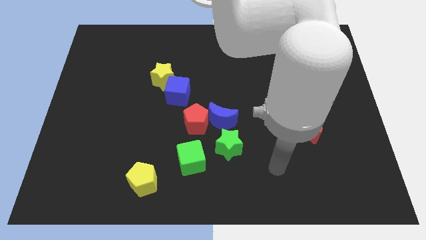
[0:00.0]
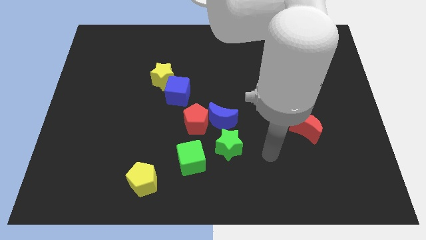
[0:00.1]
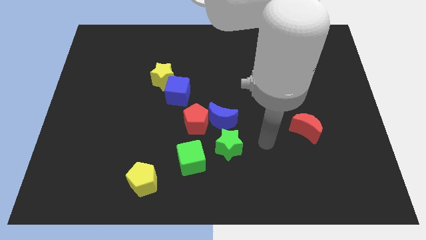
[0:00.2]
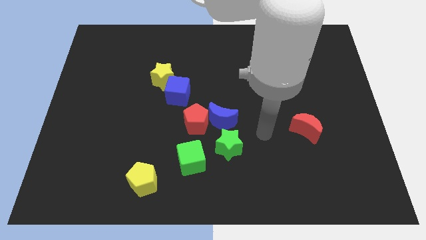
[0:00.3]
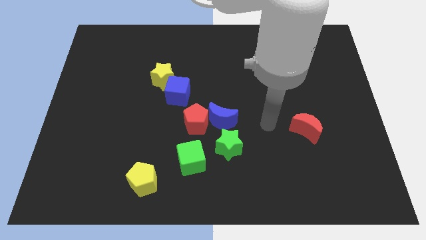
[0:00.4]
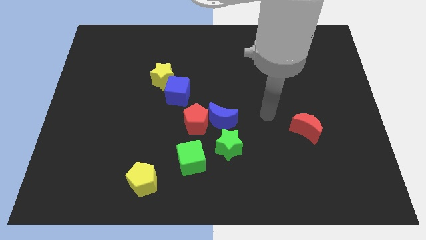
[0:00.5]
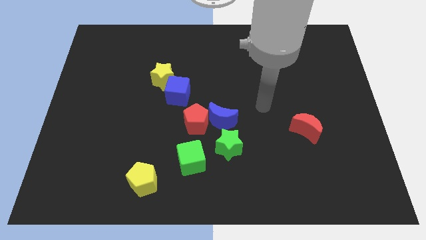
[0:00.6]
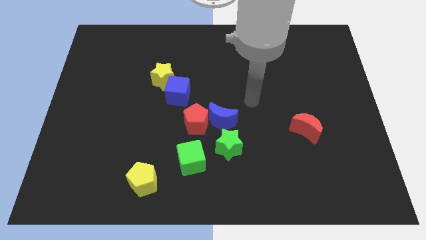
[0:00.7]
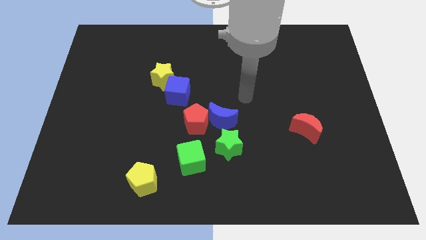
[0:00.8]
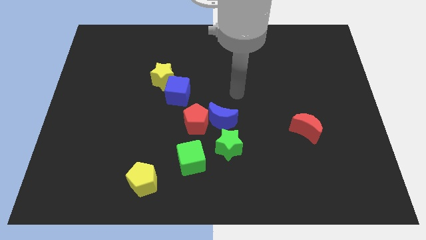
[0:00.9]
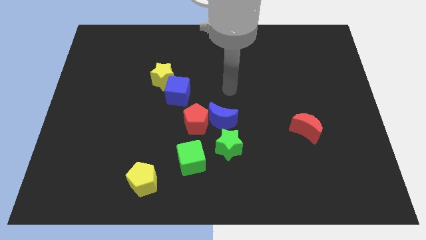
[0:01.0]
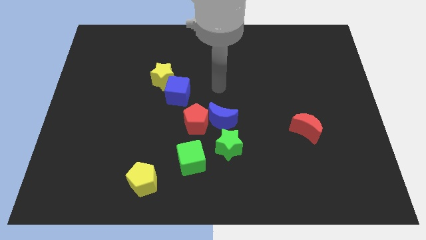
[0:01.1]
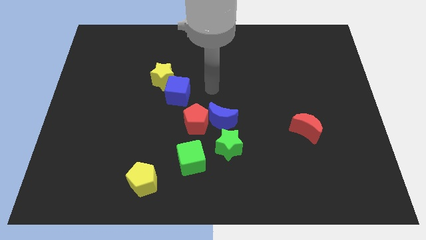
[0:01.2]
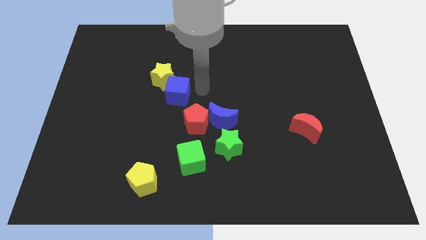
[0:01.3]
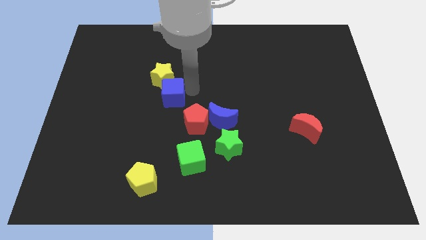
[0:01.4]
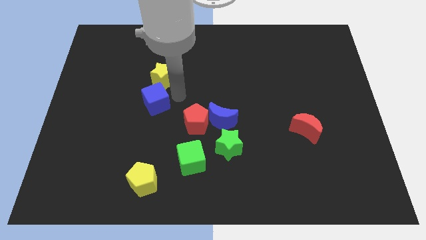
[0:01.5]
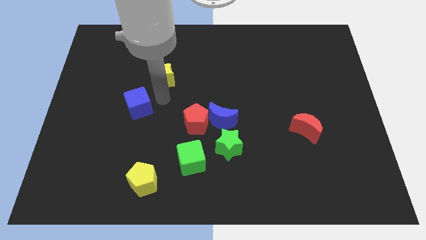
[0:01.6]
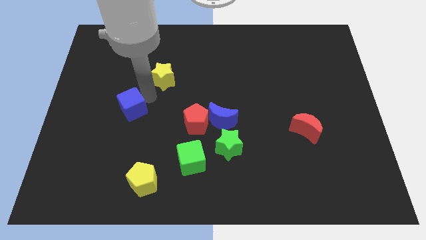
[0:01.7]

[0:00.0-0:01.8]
move the yellow star away from the blue cube

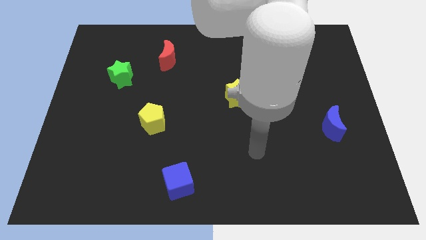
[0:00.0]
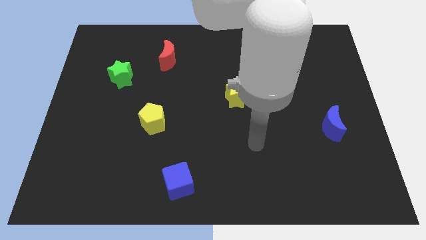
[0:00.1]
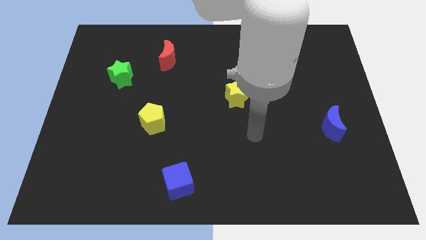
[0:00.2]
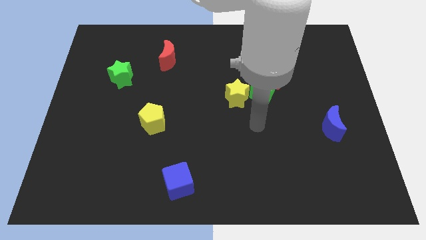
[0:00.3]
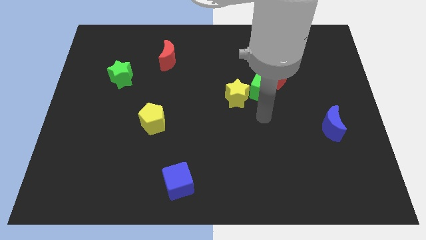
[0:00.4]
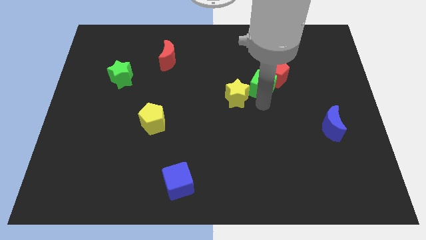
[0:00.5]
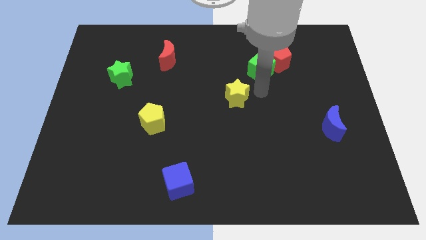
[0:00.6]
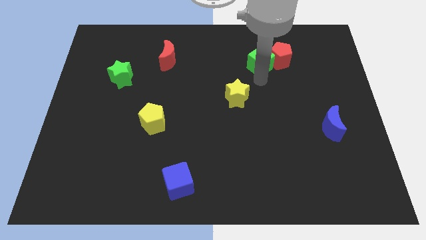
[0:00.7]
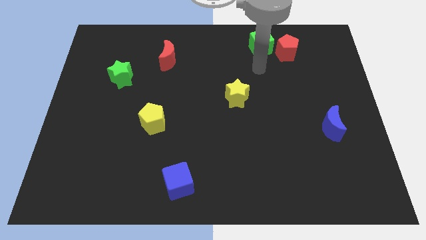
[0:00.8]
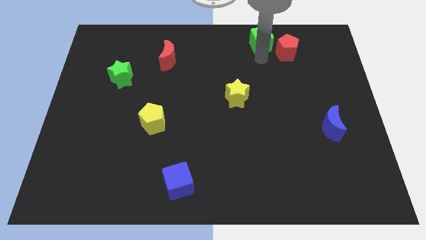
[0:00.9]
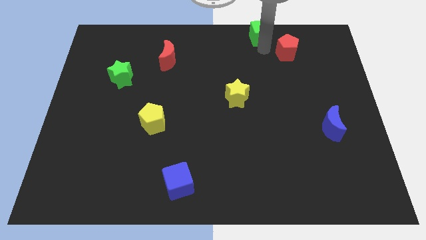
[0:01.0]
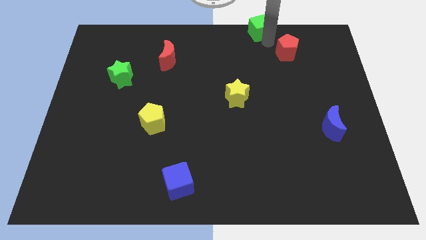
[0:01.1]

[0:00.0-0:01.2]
move the red pentagon away from the green cube

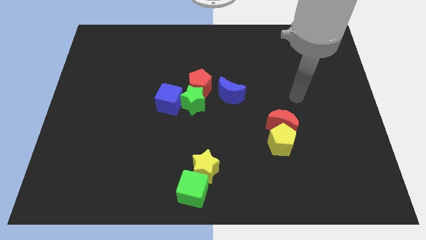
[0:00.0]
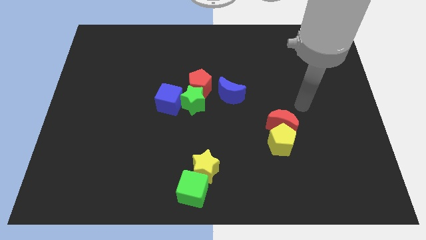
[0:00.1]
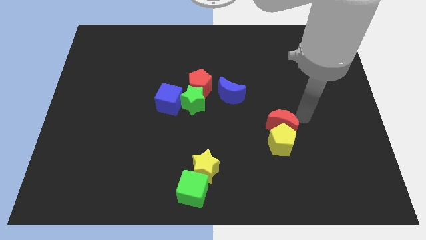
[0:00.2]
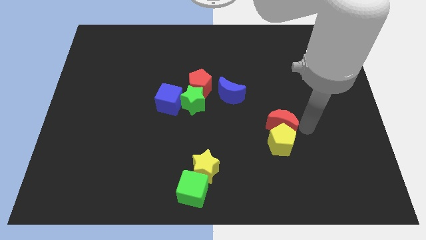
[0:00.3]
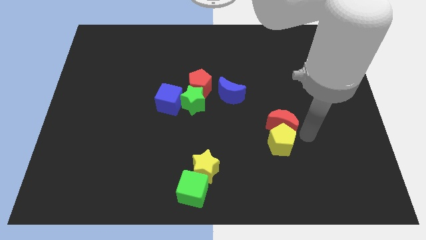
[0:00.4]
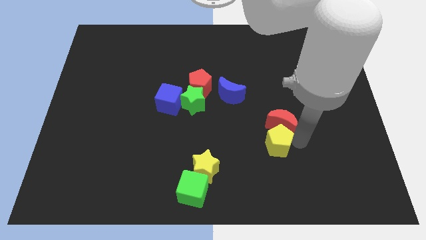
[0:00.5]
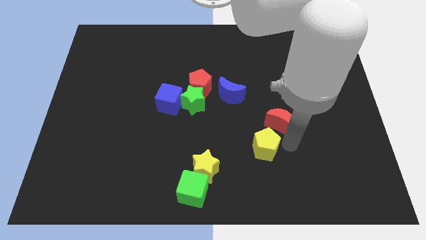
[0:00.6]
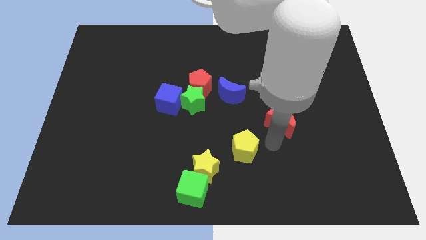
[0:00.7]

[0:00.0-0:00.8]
separate the red moon from the yellow pentagon

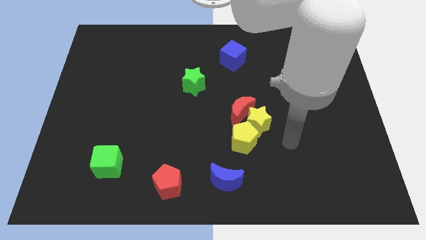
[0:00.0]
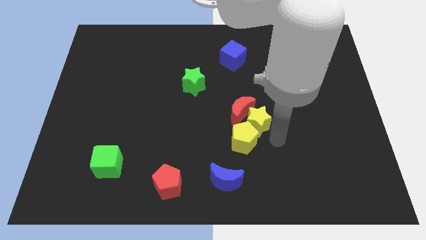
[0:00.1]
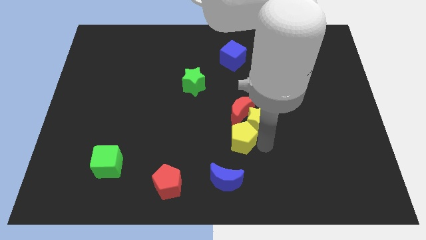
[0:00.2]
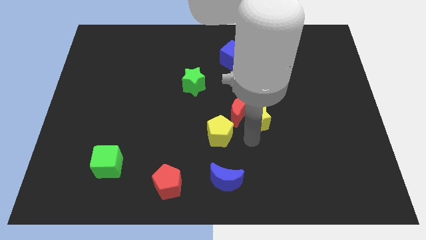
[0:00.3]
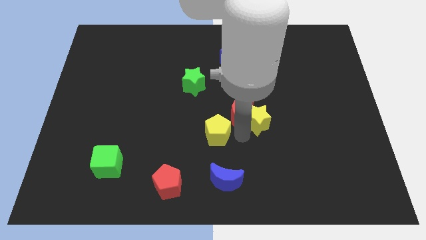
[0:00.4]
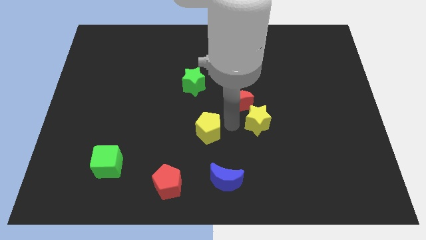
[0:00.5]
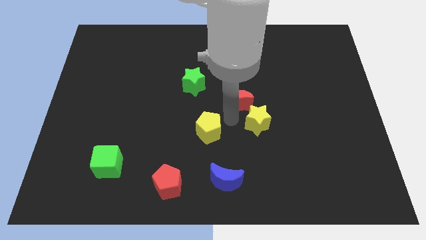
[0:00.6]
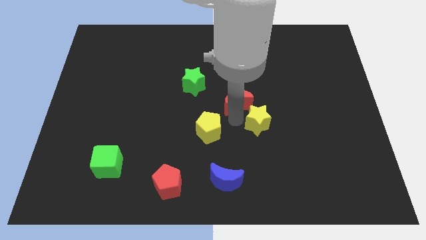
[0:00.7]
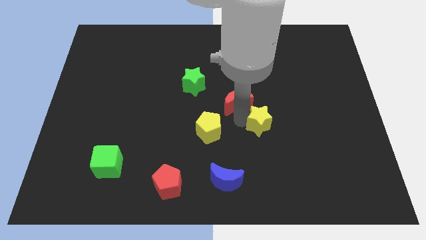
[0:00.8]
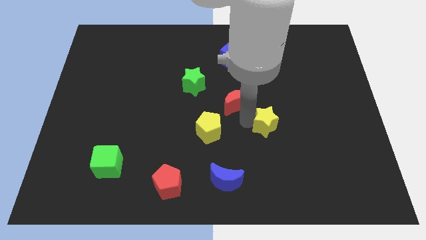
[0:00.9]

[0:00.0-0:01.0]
pull the yellow star apart from the red moon and yellow pentagon

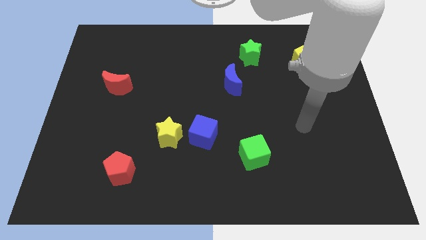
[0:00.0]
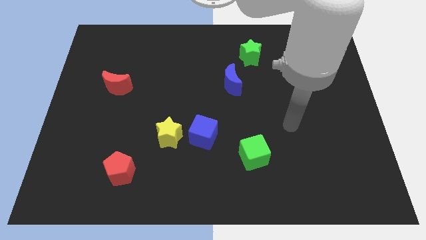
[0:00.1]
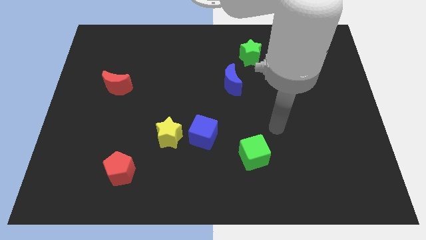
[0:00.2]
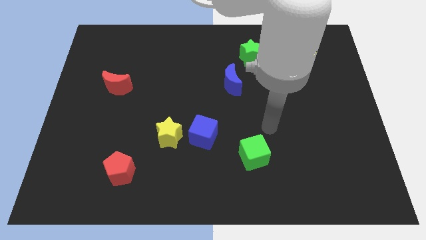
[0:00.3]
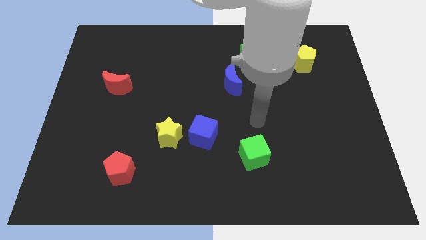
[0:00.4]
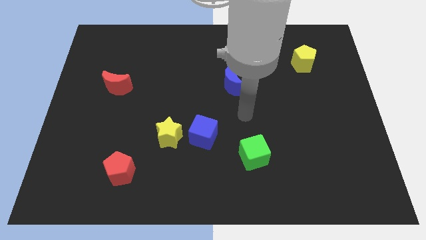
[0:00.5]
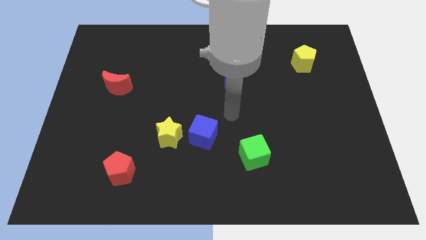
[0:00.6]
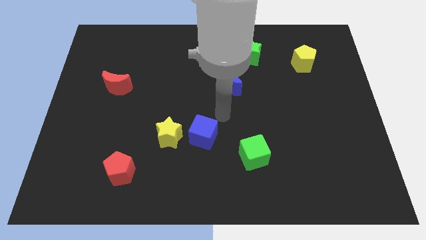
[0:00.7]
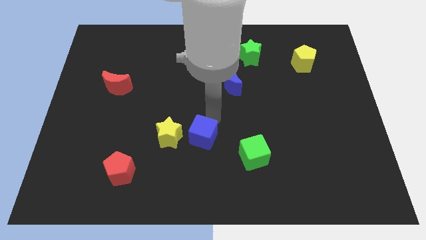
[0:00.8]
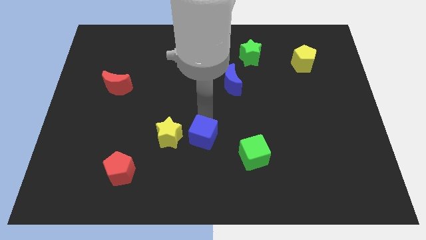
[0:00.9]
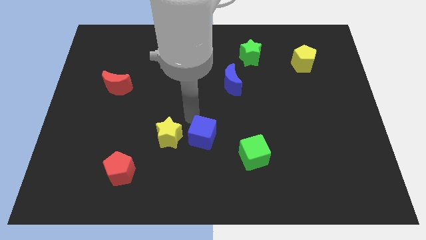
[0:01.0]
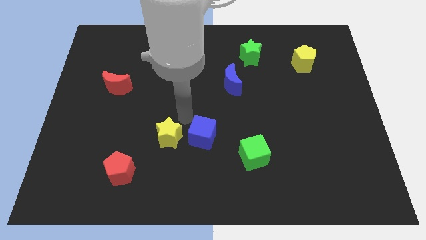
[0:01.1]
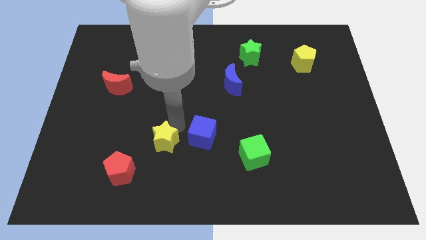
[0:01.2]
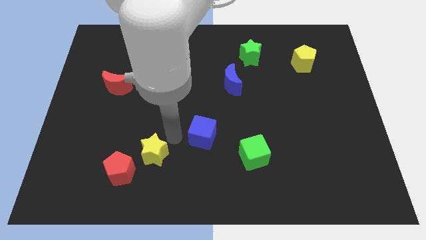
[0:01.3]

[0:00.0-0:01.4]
separate the blue cube from the yellow star

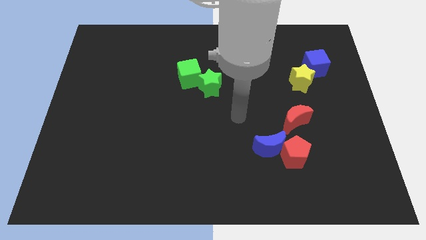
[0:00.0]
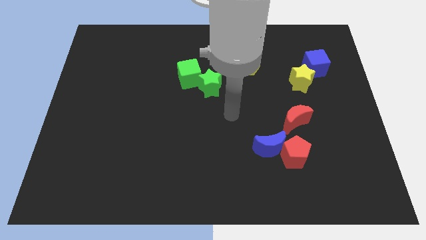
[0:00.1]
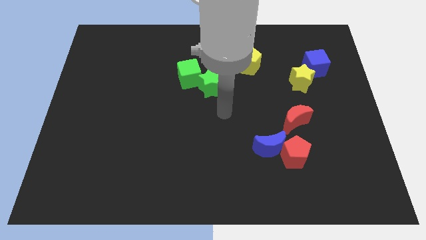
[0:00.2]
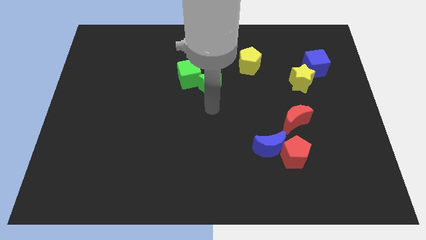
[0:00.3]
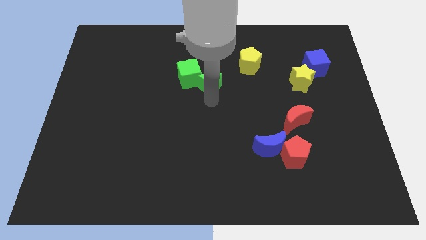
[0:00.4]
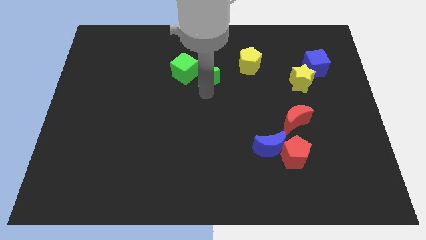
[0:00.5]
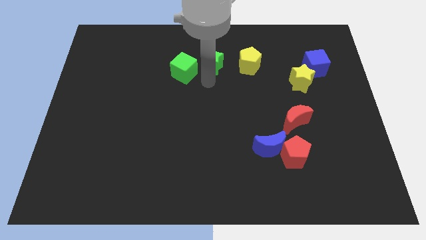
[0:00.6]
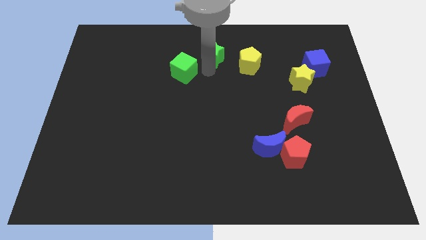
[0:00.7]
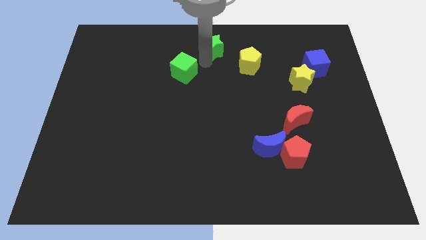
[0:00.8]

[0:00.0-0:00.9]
move the green cube away from the green star

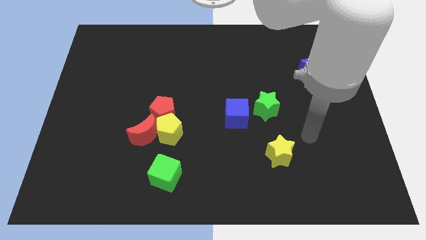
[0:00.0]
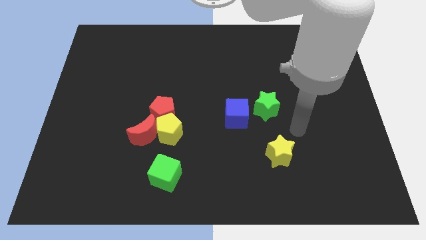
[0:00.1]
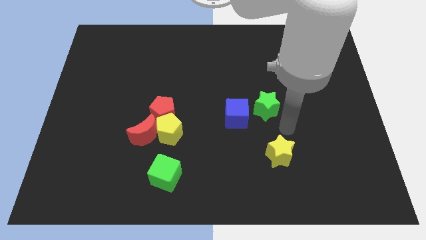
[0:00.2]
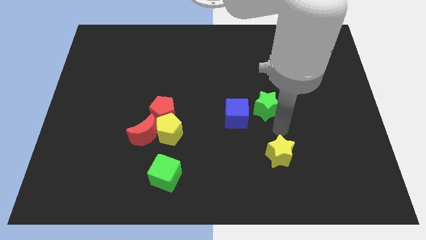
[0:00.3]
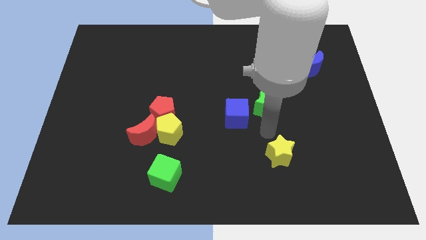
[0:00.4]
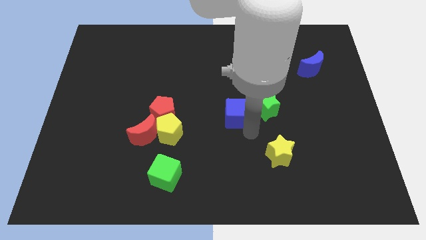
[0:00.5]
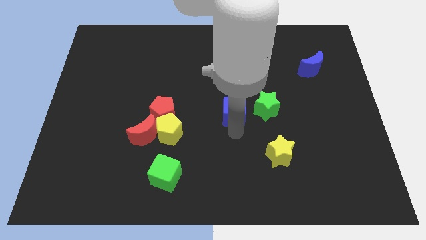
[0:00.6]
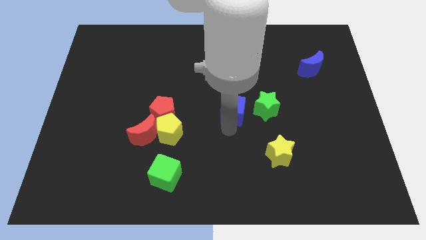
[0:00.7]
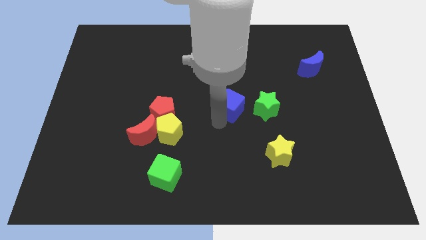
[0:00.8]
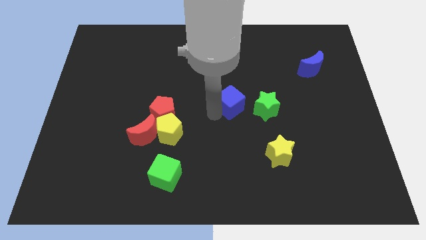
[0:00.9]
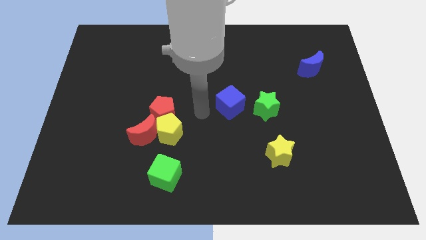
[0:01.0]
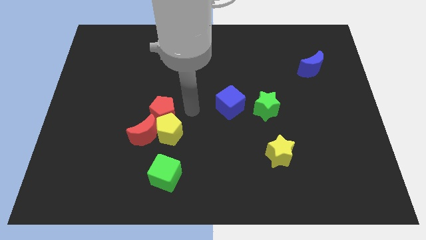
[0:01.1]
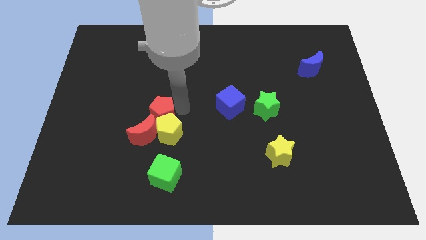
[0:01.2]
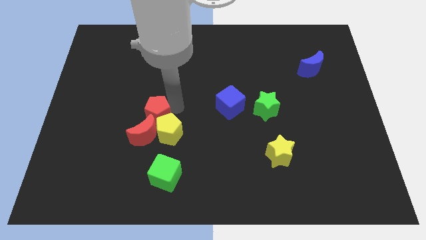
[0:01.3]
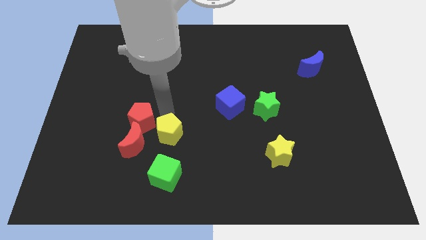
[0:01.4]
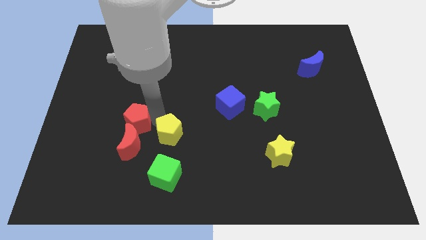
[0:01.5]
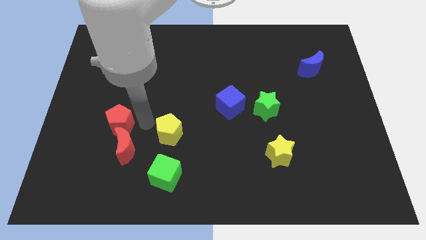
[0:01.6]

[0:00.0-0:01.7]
separate the yellow pentagon from the red pentagon and red moon

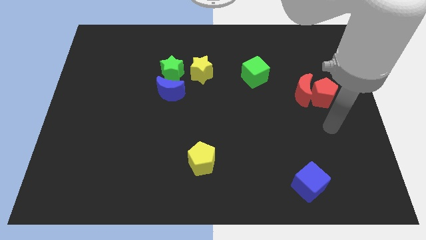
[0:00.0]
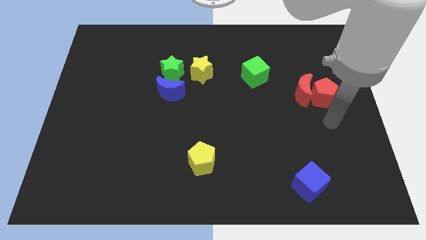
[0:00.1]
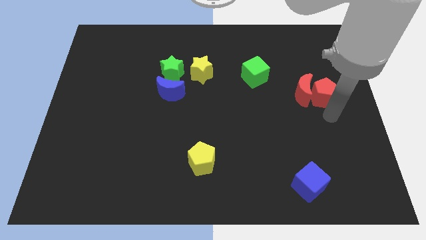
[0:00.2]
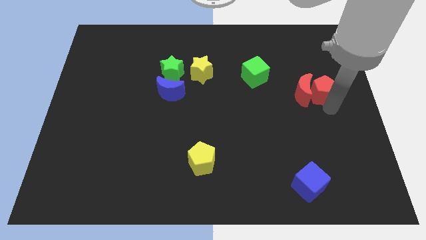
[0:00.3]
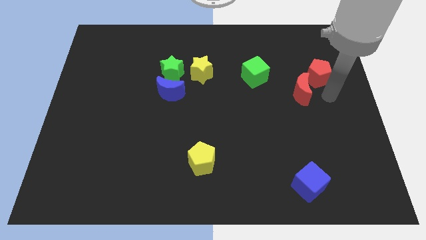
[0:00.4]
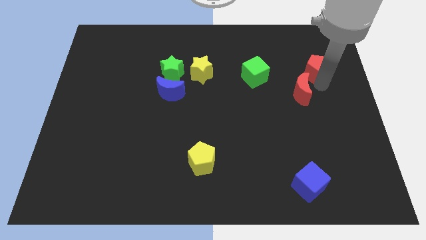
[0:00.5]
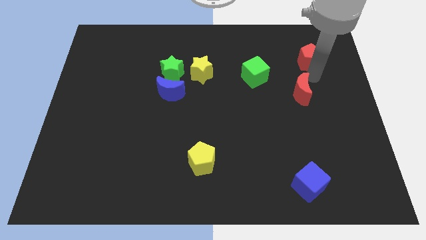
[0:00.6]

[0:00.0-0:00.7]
separate the red moon from the red pentagon
